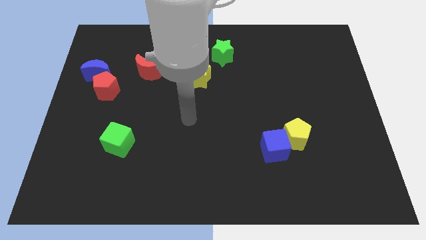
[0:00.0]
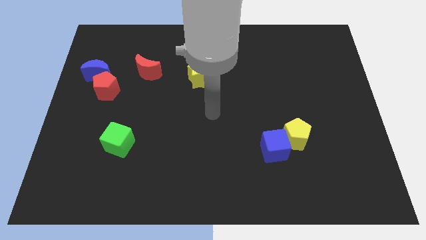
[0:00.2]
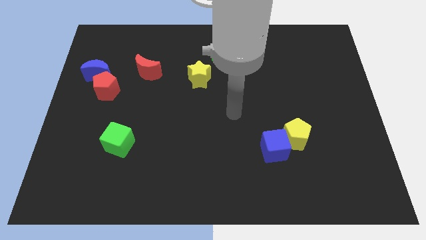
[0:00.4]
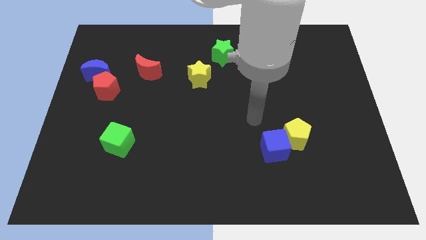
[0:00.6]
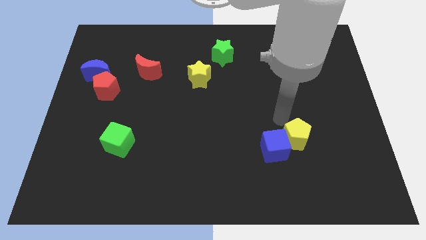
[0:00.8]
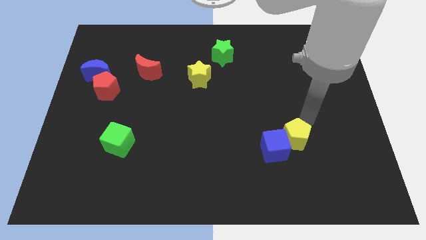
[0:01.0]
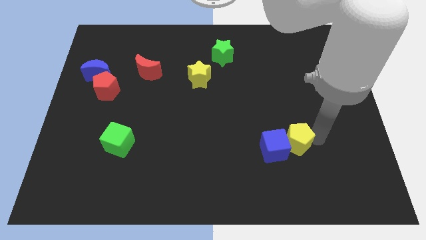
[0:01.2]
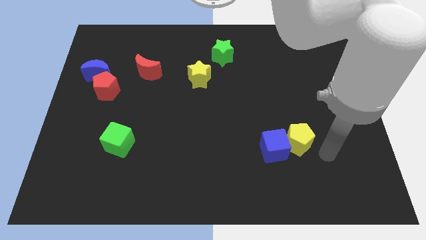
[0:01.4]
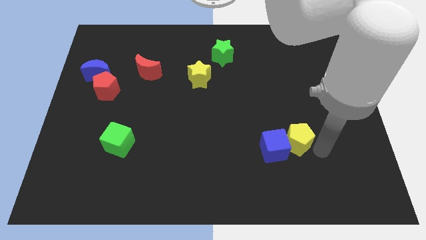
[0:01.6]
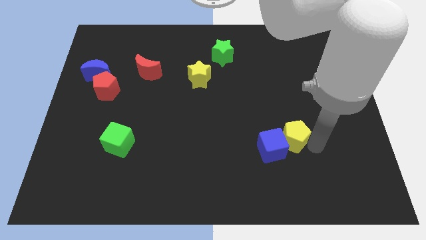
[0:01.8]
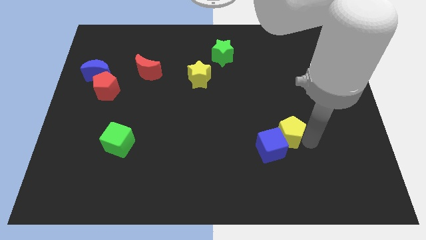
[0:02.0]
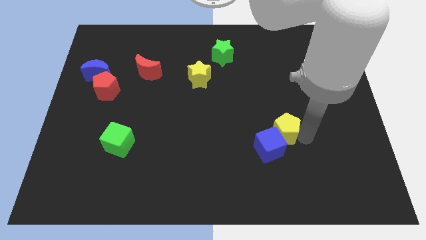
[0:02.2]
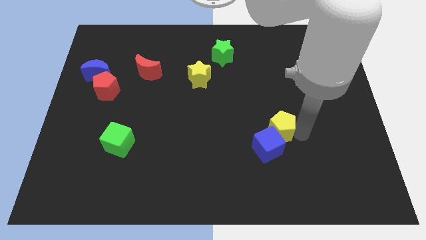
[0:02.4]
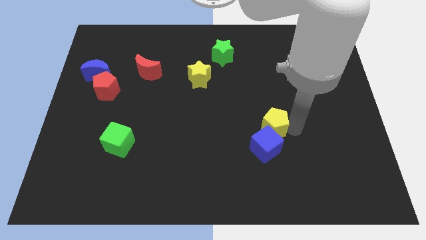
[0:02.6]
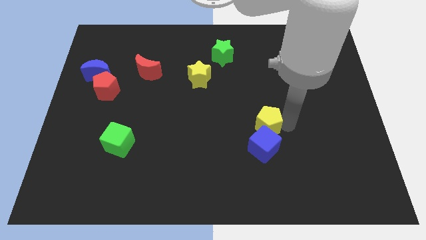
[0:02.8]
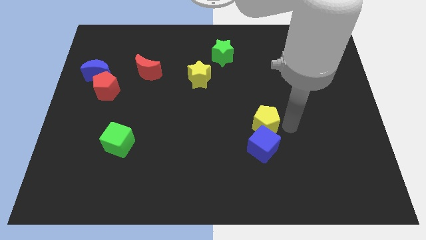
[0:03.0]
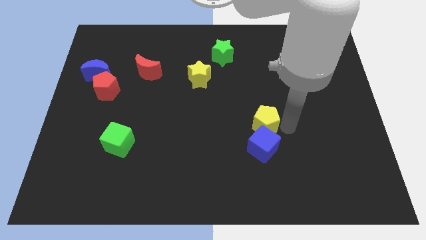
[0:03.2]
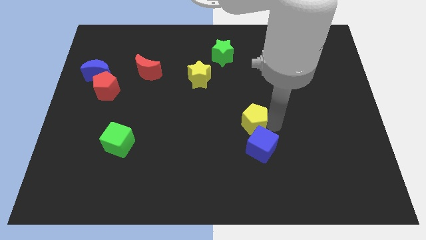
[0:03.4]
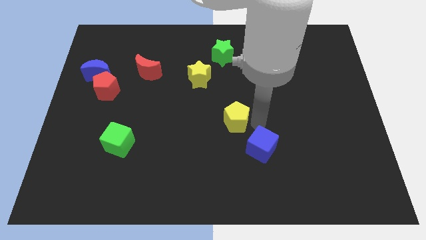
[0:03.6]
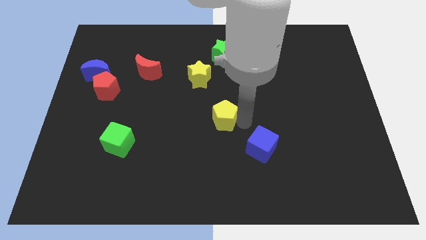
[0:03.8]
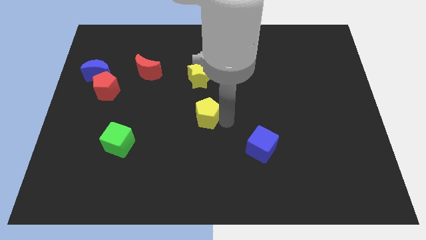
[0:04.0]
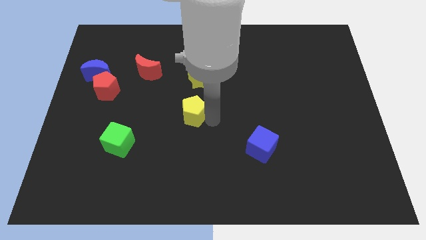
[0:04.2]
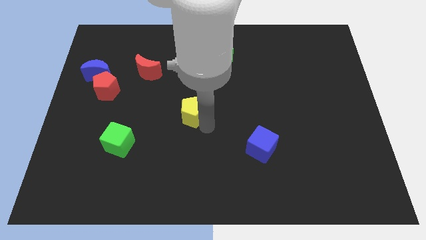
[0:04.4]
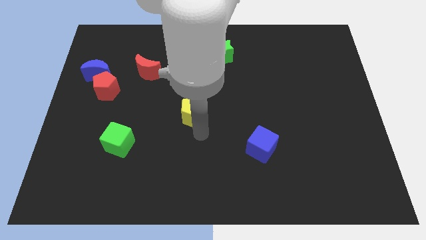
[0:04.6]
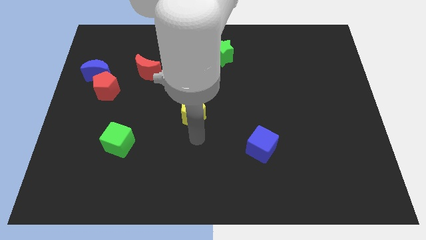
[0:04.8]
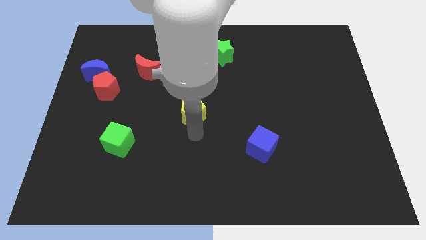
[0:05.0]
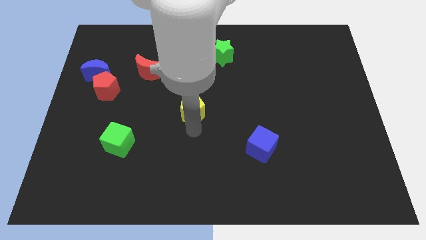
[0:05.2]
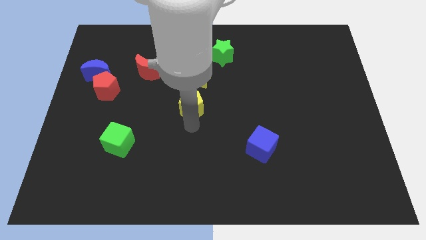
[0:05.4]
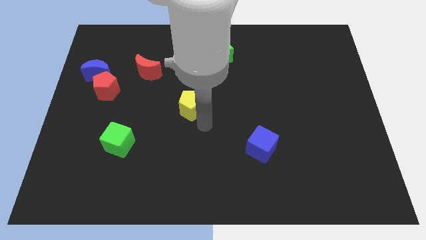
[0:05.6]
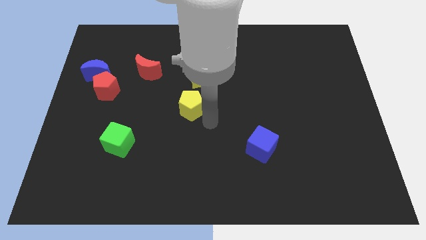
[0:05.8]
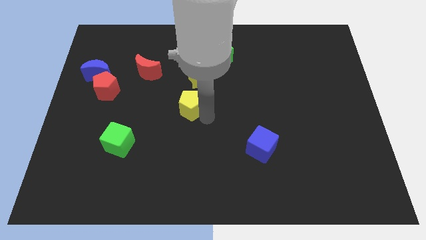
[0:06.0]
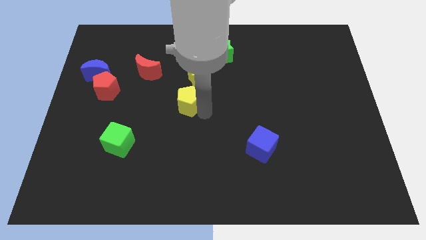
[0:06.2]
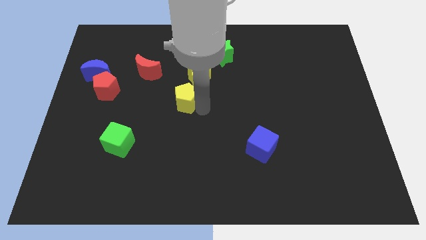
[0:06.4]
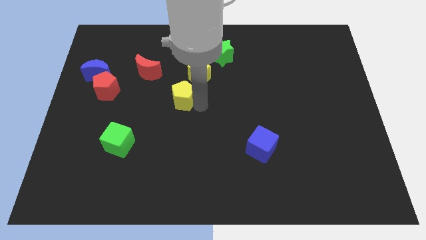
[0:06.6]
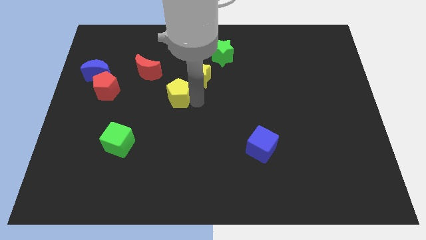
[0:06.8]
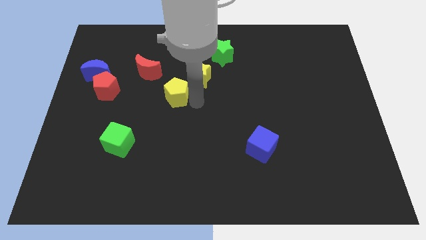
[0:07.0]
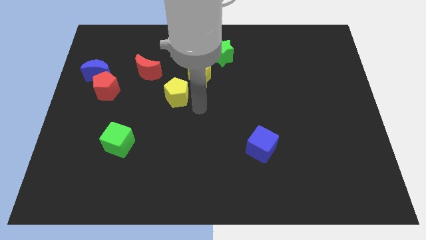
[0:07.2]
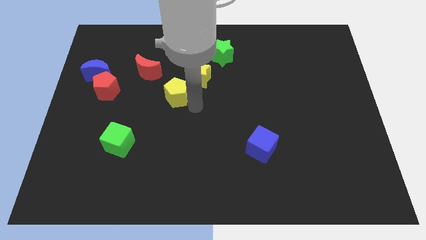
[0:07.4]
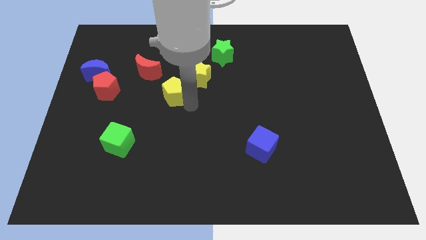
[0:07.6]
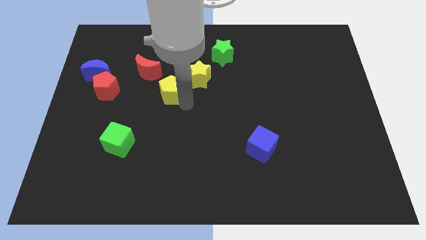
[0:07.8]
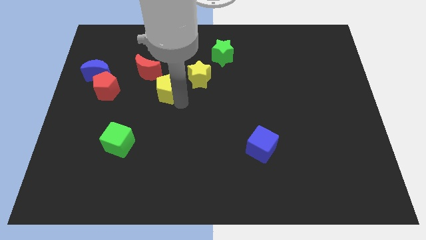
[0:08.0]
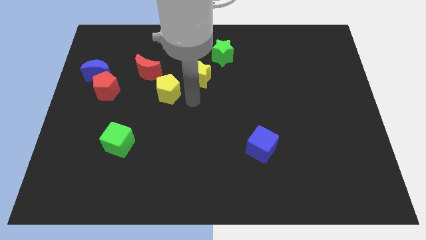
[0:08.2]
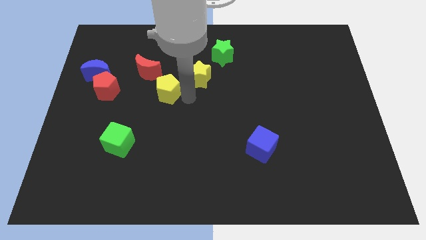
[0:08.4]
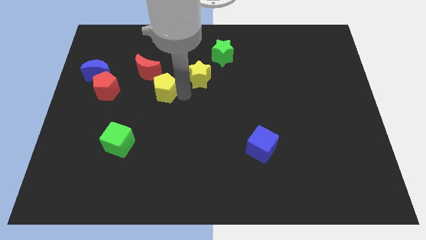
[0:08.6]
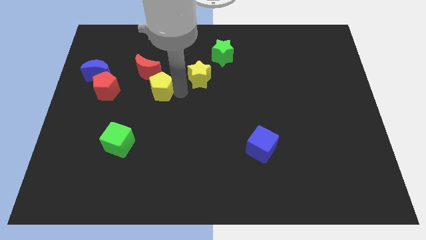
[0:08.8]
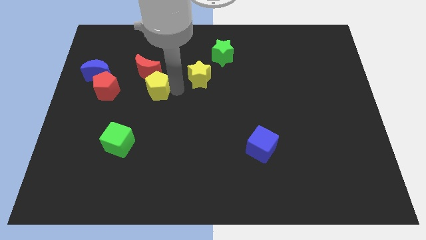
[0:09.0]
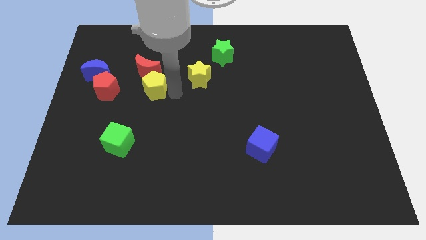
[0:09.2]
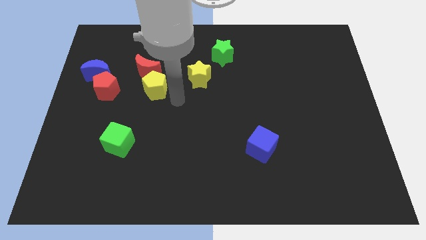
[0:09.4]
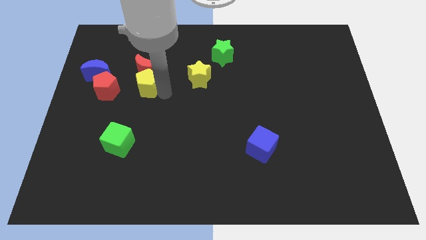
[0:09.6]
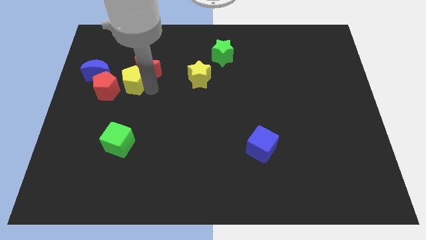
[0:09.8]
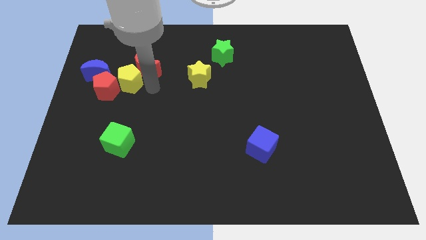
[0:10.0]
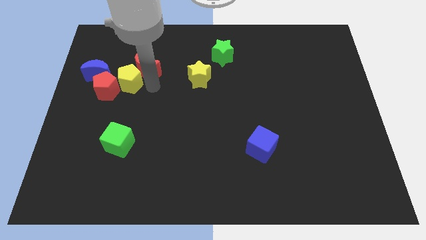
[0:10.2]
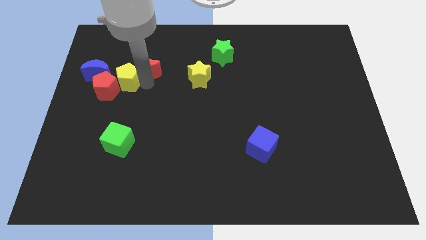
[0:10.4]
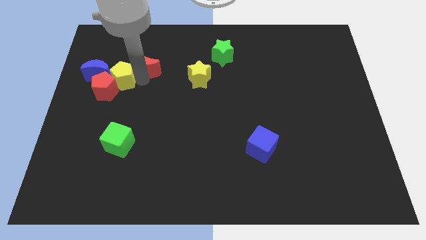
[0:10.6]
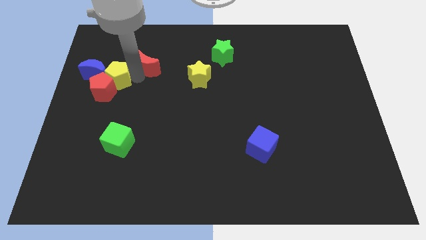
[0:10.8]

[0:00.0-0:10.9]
put the yellow pentagon towards the blue moon

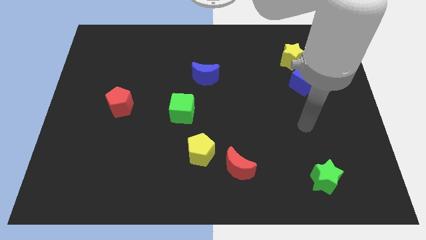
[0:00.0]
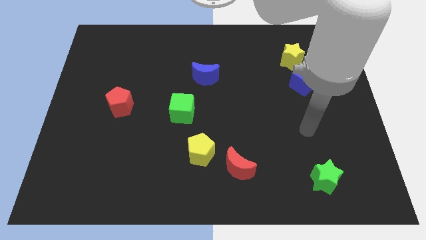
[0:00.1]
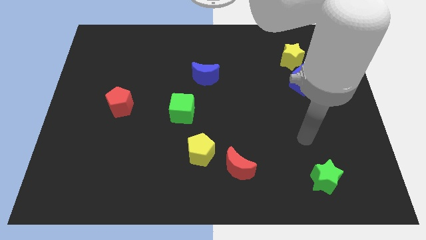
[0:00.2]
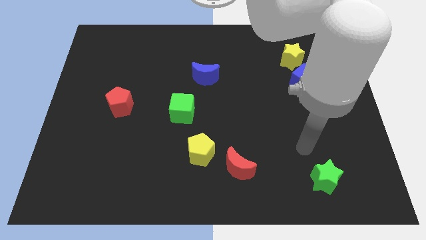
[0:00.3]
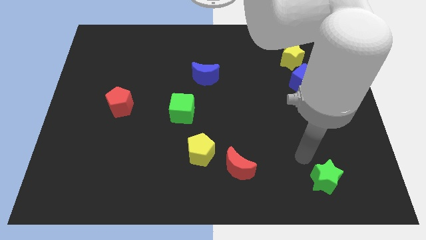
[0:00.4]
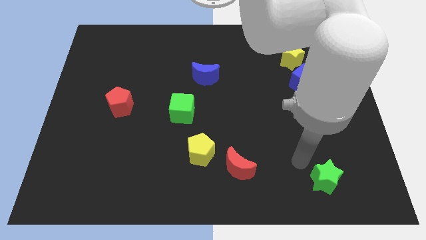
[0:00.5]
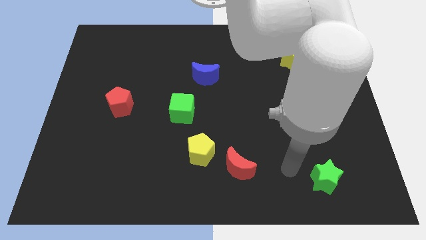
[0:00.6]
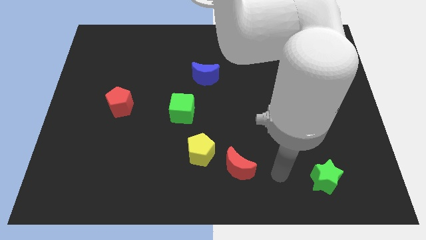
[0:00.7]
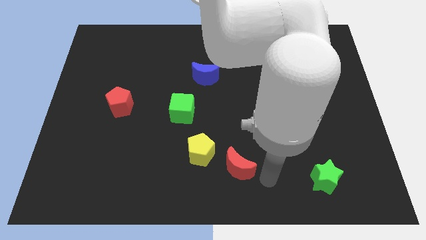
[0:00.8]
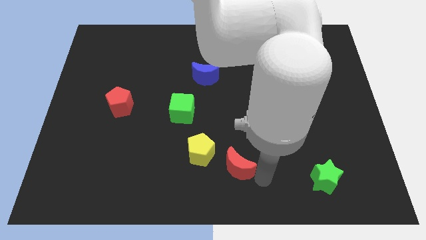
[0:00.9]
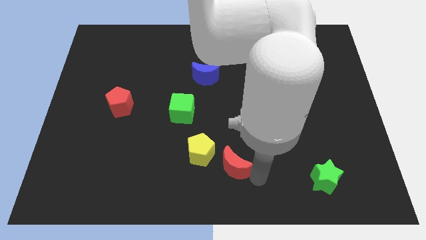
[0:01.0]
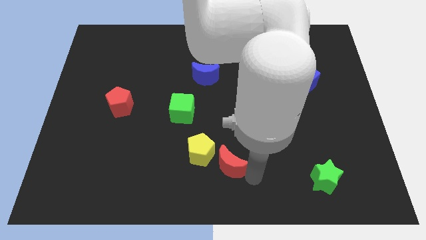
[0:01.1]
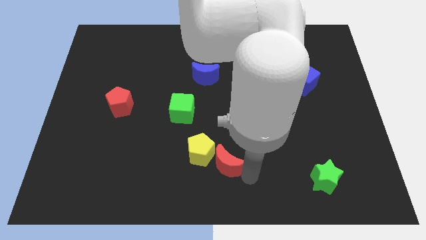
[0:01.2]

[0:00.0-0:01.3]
put the red moon to the yellow pentagon

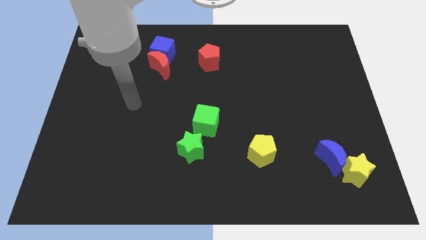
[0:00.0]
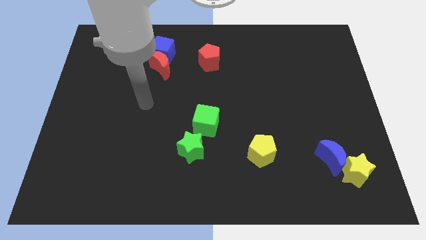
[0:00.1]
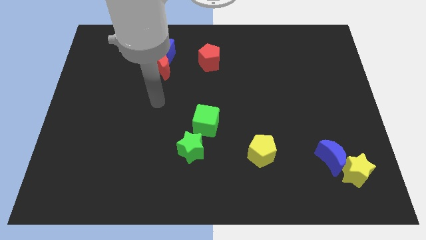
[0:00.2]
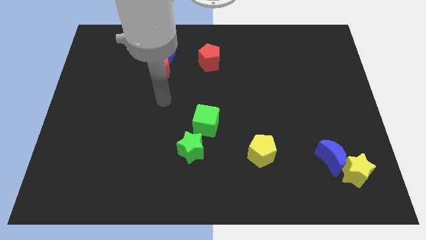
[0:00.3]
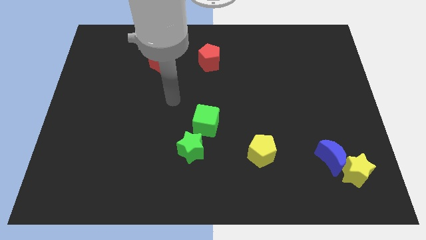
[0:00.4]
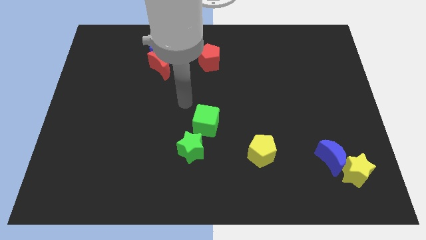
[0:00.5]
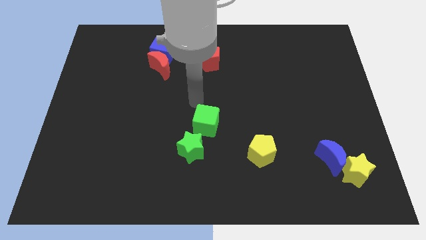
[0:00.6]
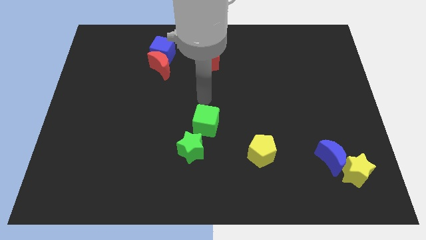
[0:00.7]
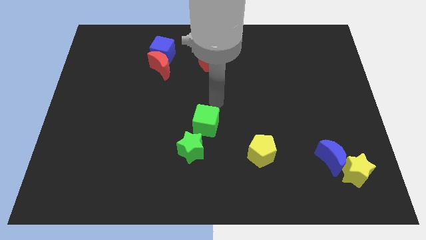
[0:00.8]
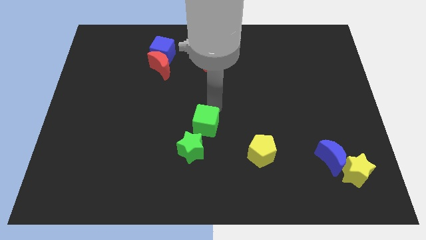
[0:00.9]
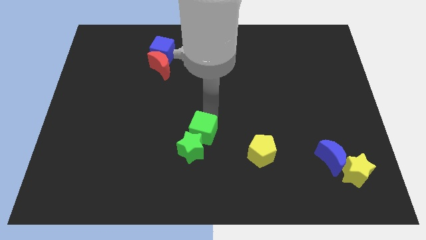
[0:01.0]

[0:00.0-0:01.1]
slide the green cube towards the green star
